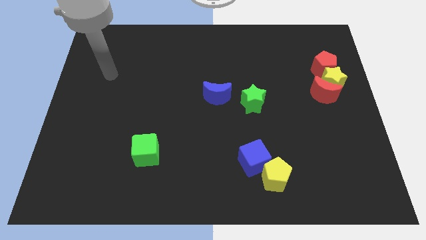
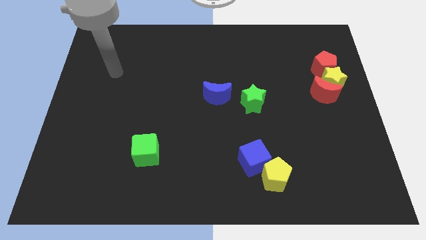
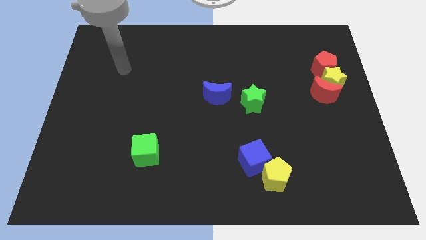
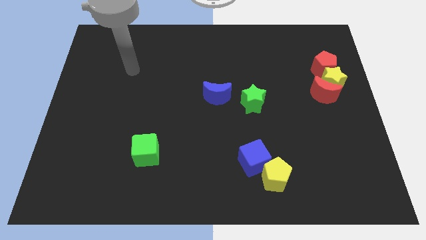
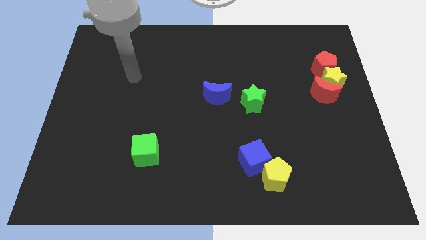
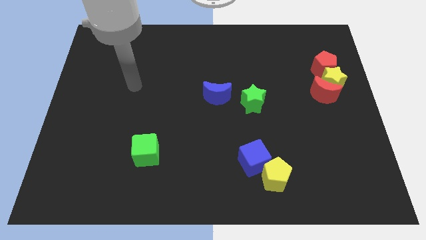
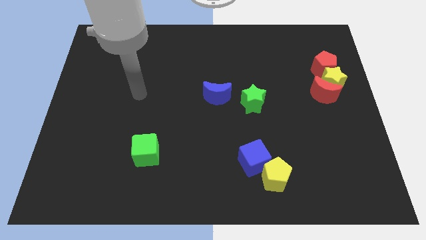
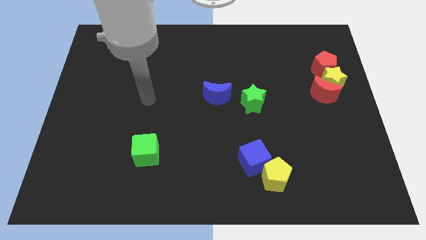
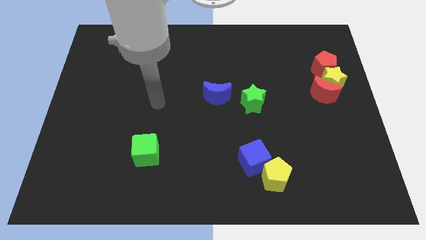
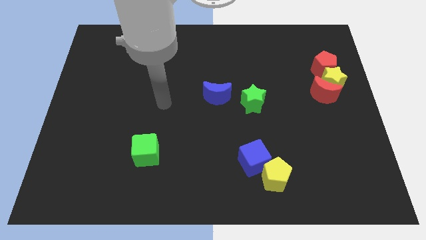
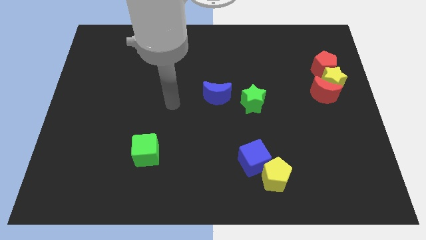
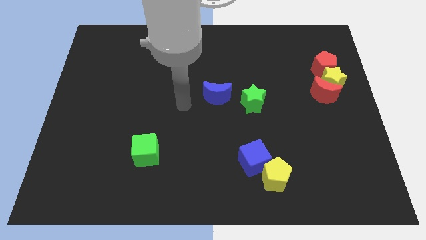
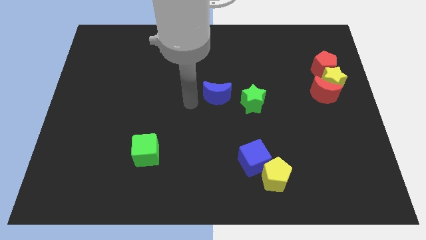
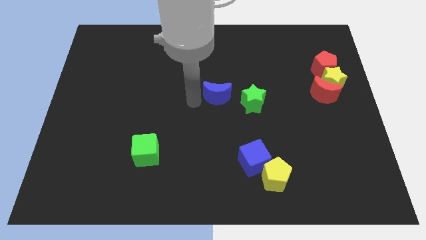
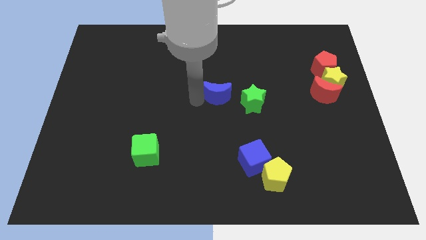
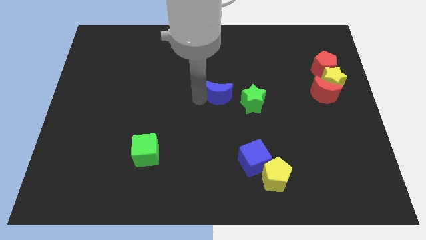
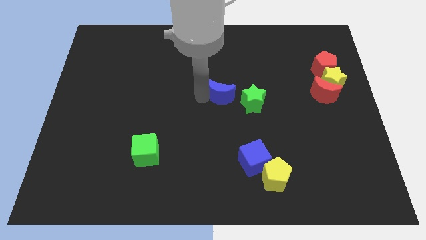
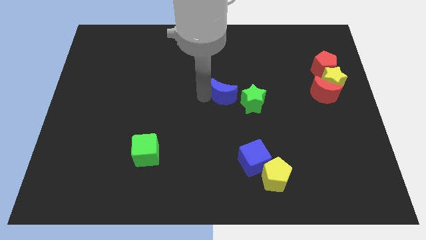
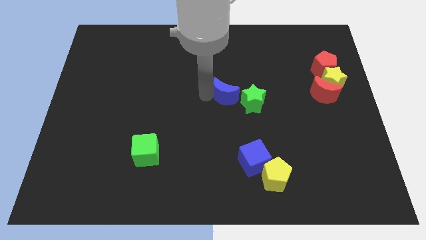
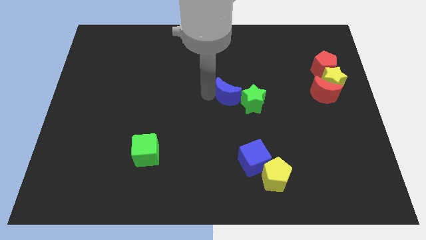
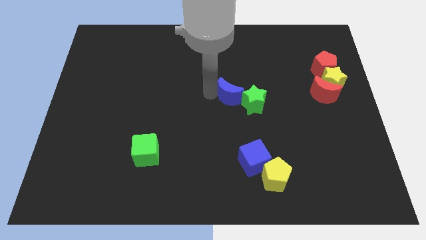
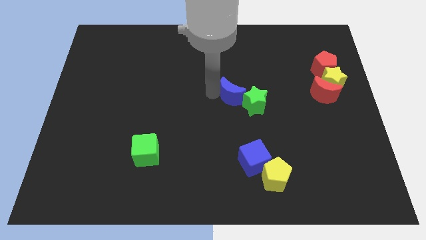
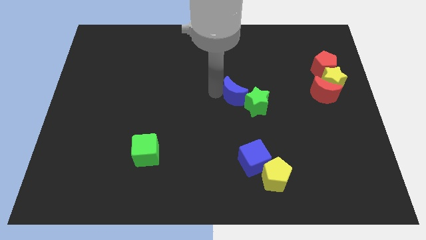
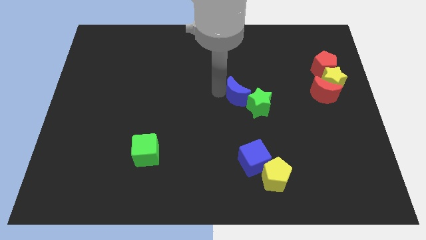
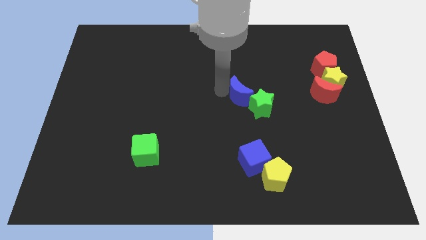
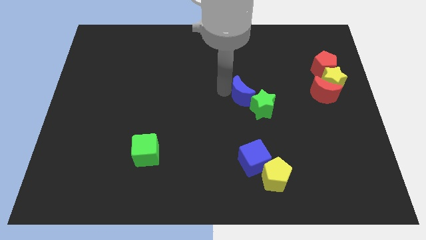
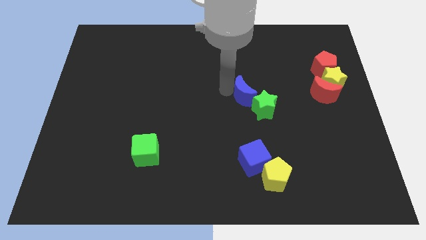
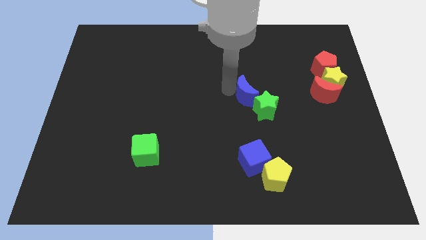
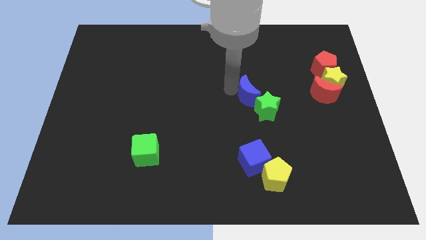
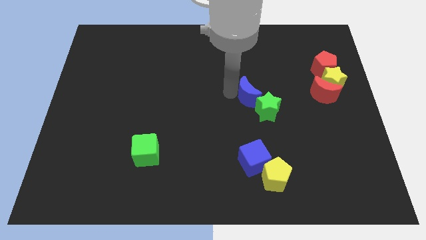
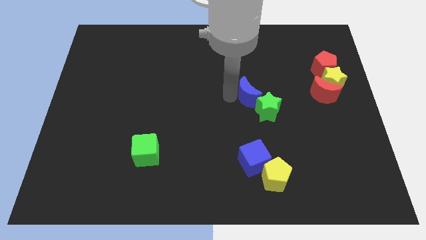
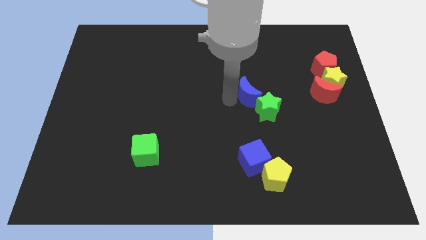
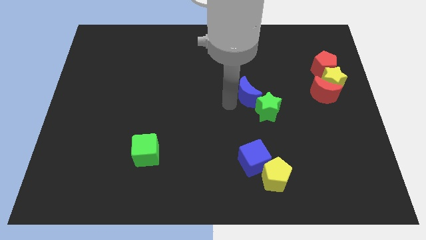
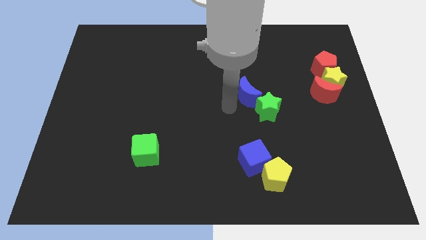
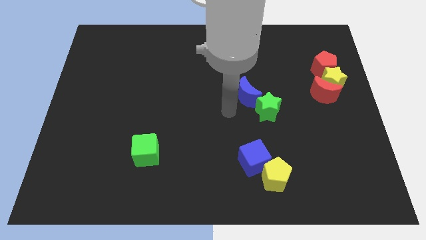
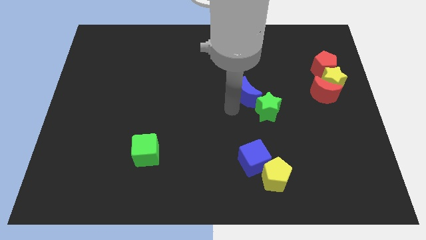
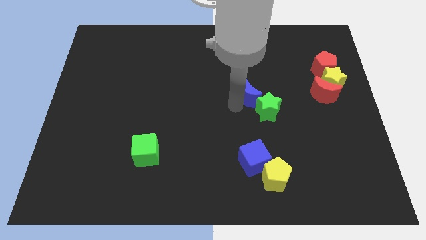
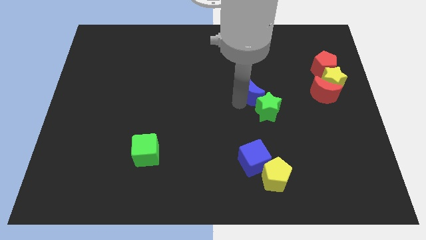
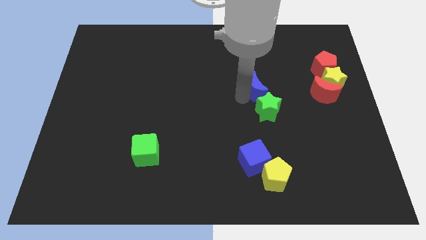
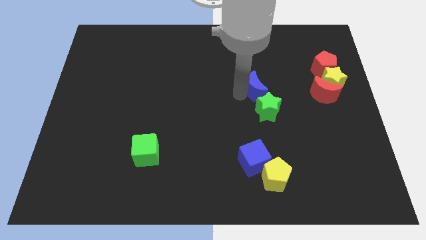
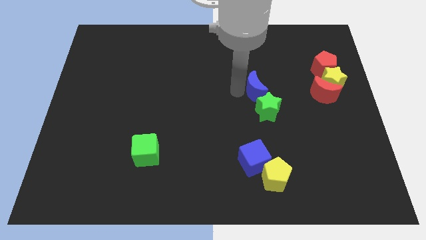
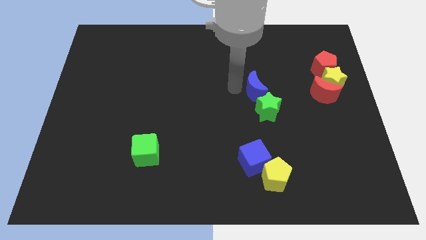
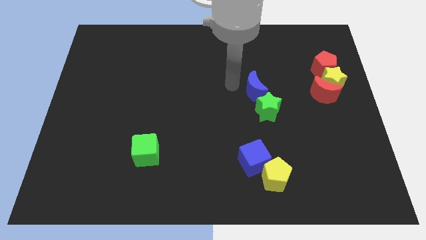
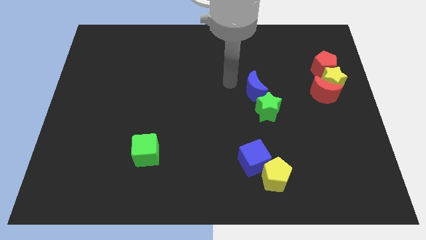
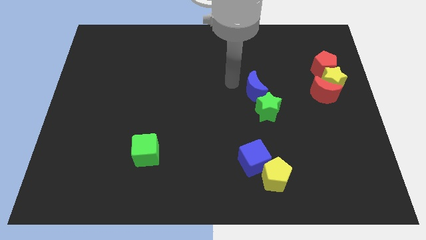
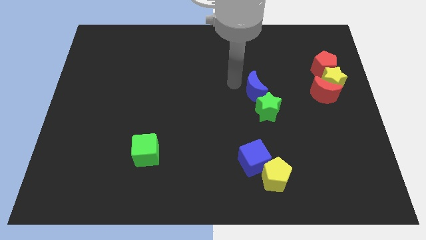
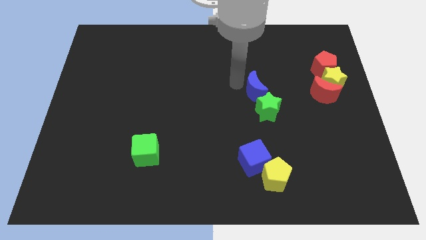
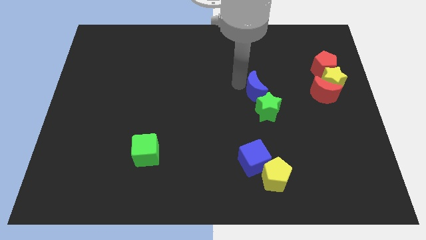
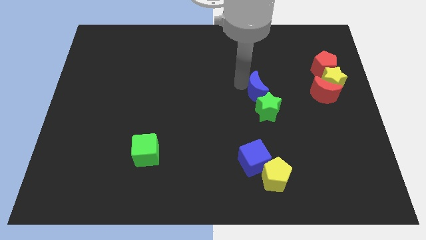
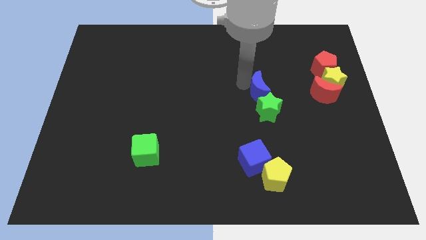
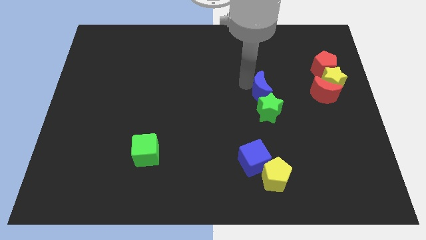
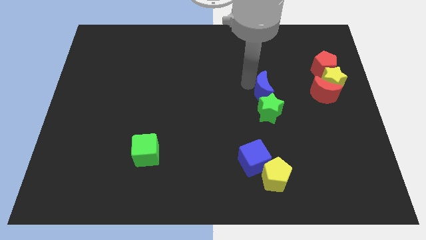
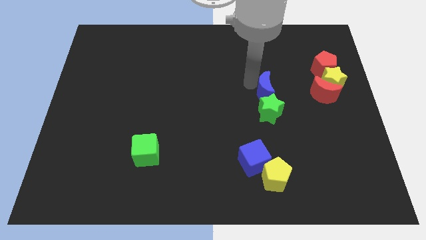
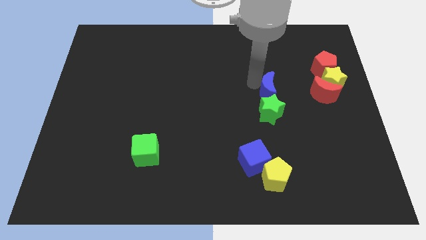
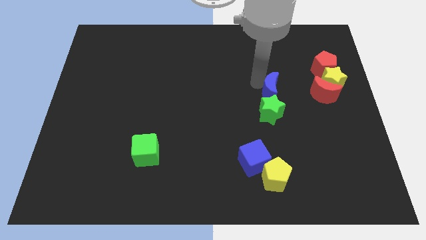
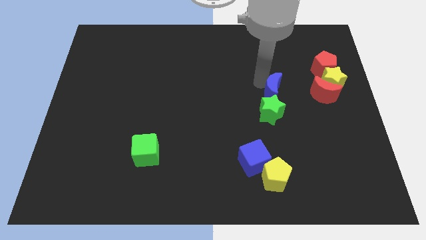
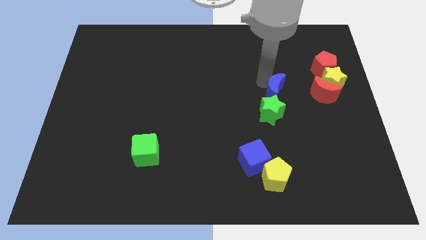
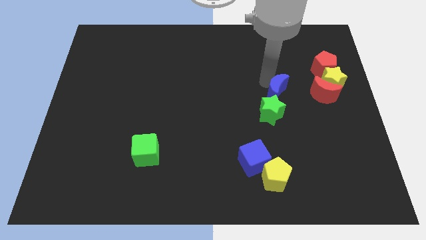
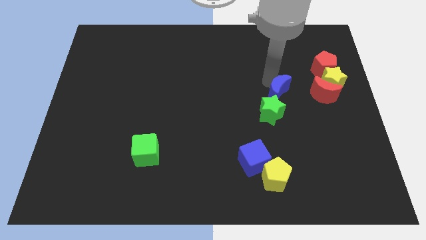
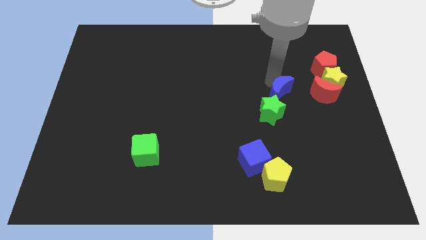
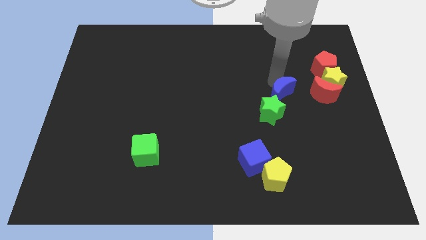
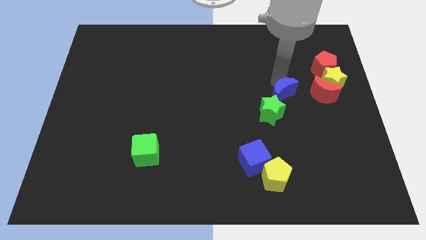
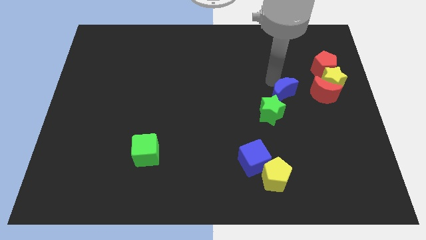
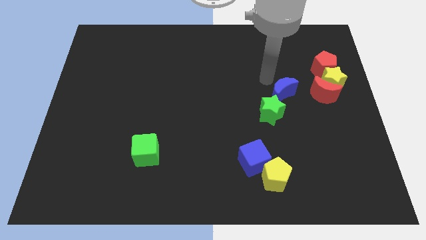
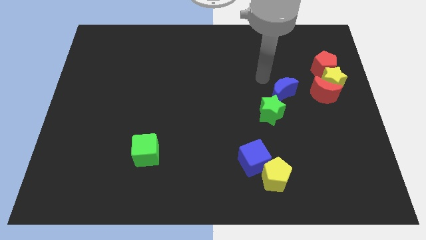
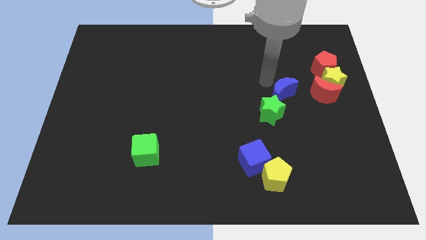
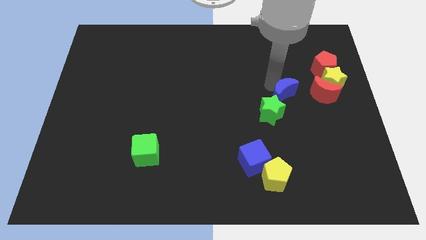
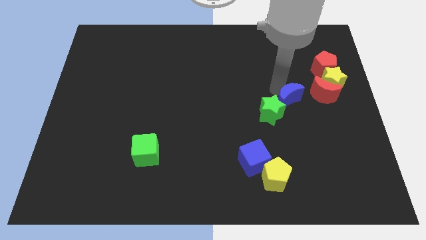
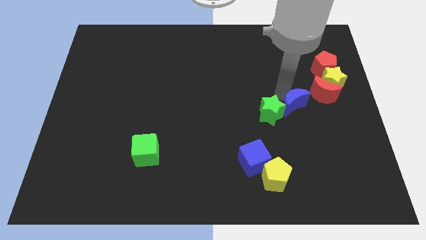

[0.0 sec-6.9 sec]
move the blue moon to the bottom left side of the red moon
